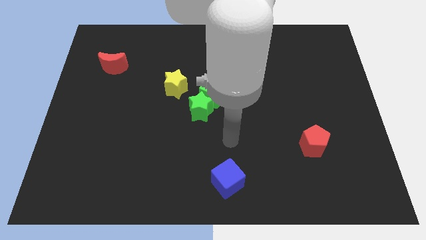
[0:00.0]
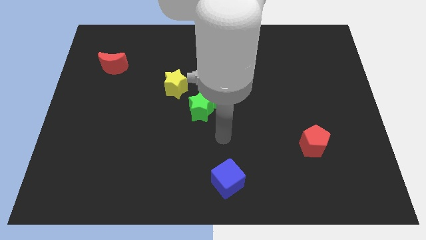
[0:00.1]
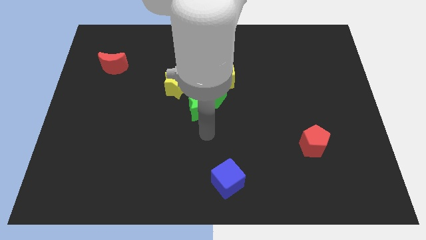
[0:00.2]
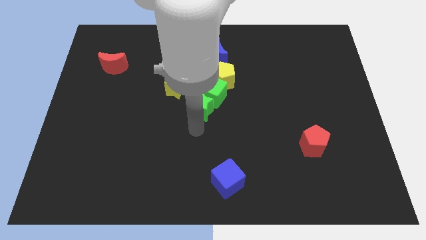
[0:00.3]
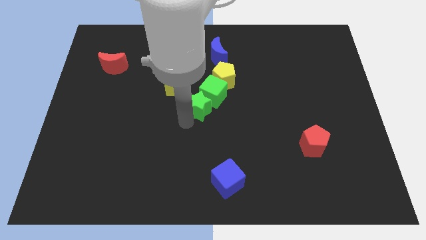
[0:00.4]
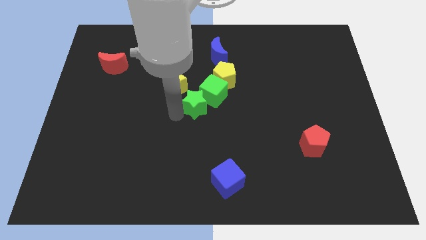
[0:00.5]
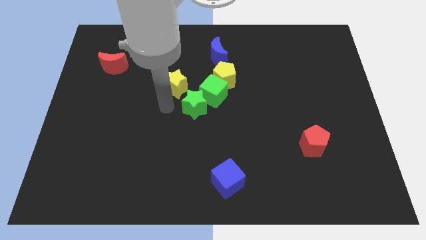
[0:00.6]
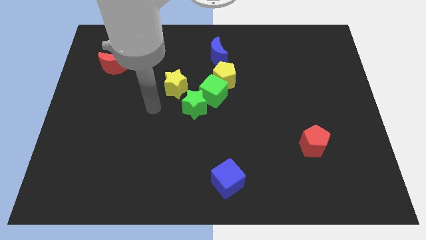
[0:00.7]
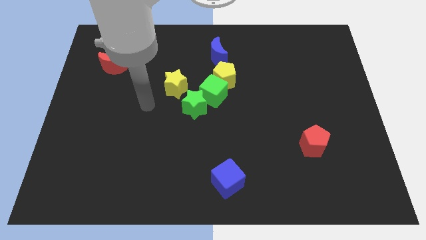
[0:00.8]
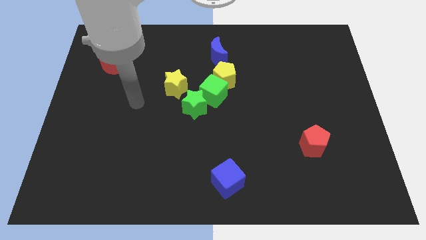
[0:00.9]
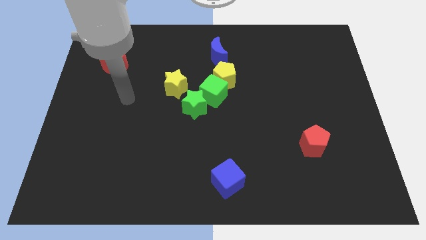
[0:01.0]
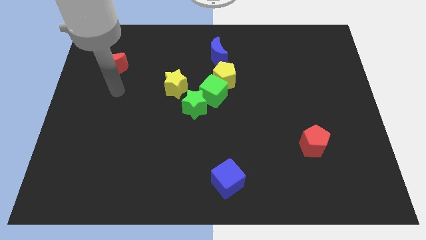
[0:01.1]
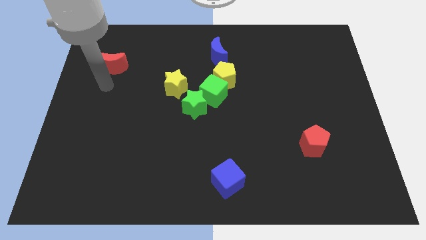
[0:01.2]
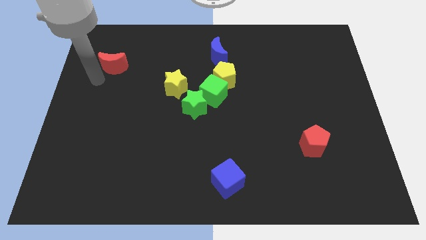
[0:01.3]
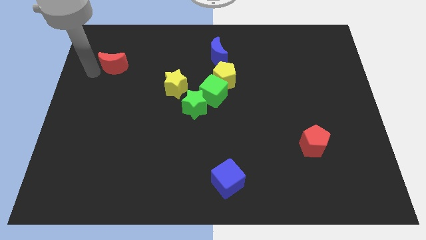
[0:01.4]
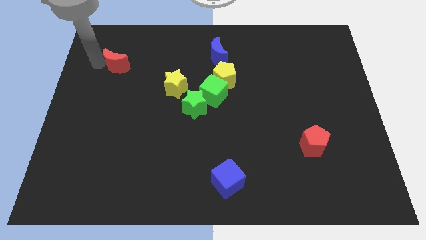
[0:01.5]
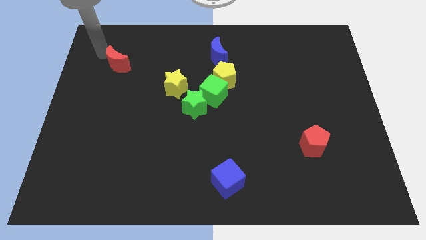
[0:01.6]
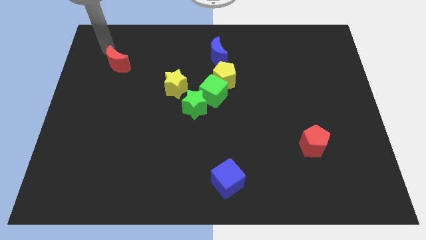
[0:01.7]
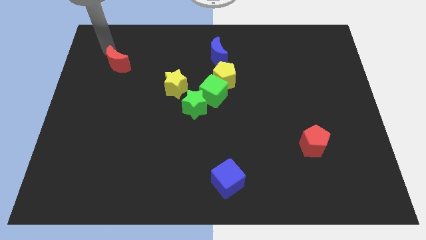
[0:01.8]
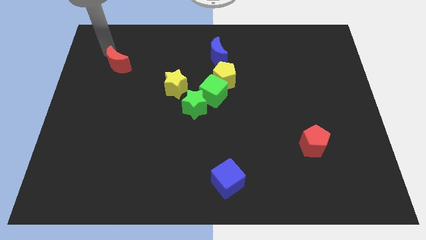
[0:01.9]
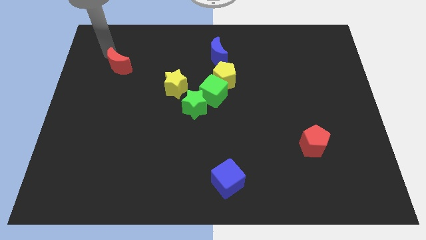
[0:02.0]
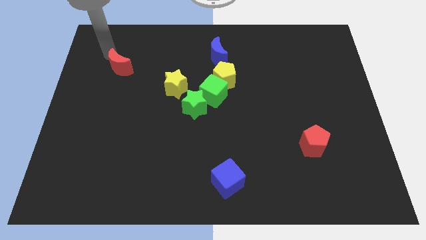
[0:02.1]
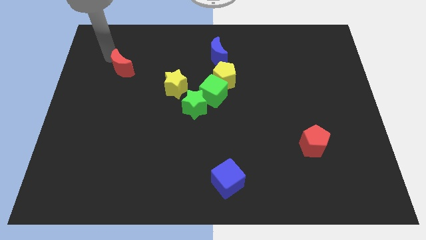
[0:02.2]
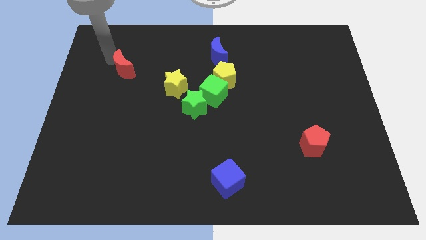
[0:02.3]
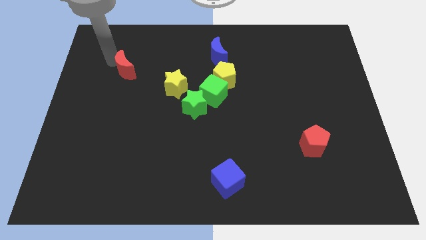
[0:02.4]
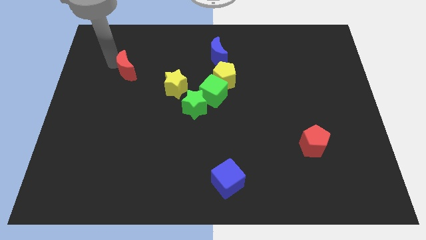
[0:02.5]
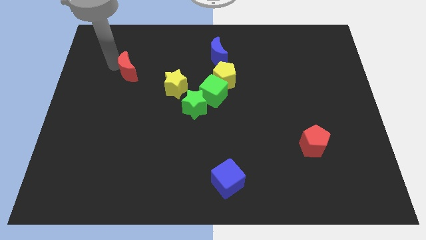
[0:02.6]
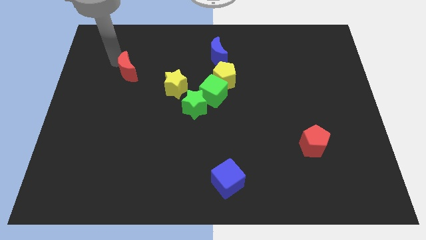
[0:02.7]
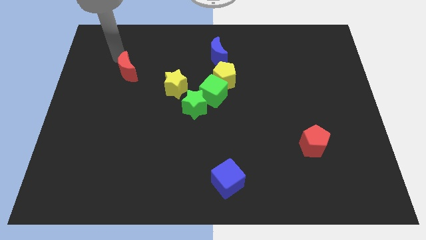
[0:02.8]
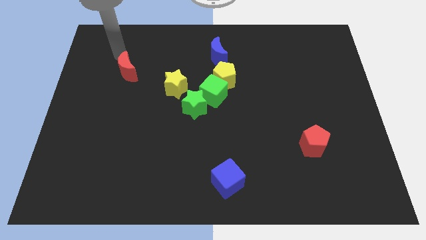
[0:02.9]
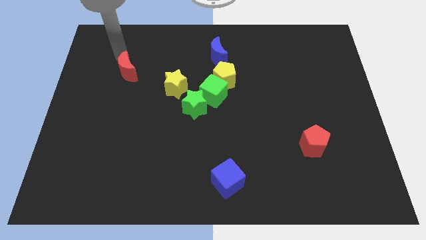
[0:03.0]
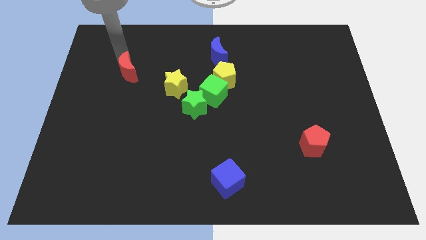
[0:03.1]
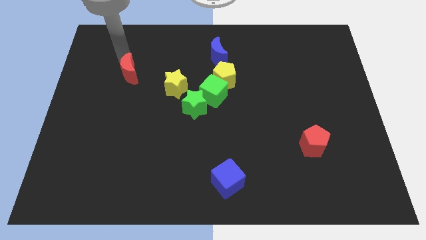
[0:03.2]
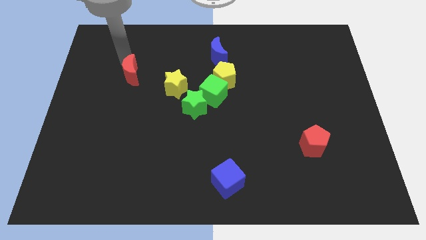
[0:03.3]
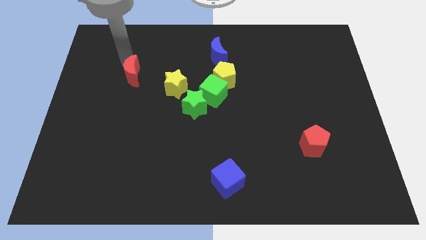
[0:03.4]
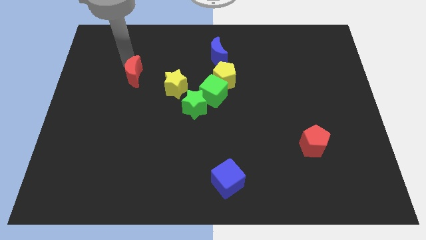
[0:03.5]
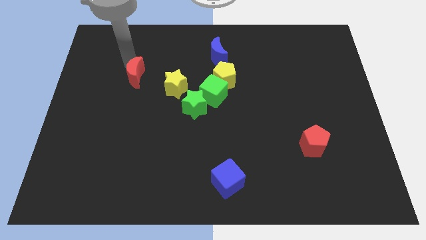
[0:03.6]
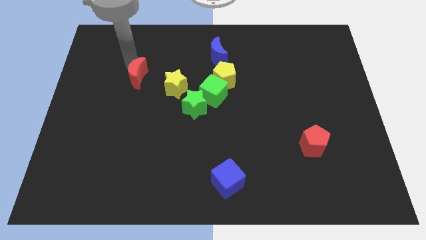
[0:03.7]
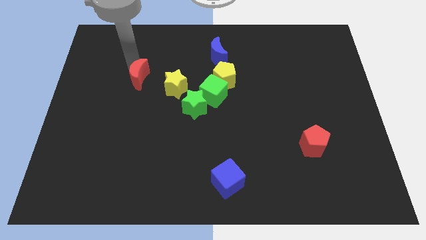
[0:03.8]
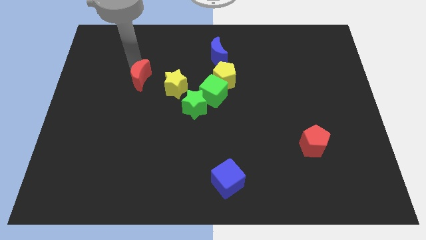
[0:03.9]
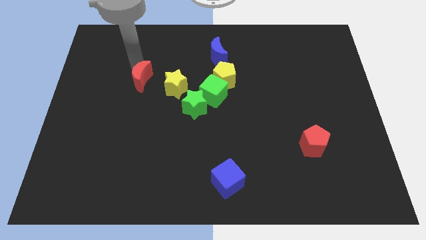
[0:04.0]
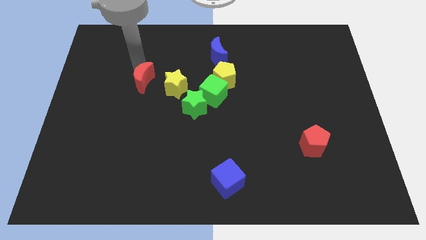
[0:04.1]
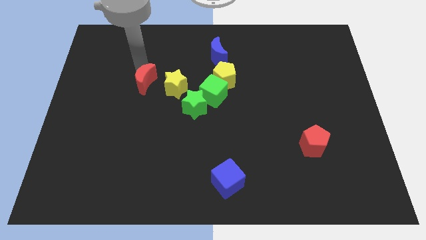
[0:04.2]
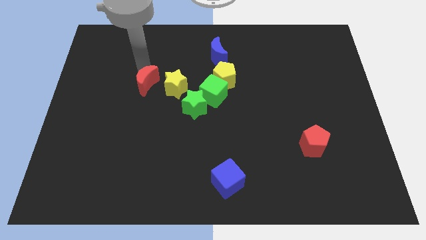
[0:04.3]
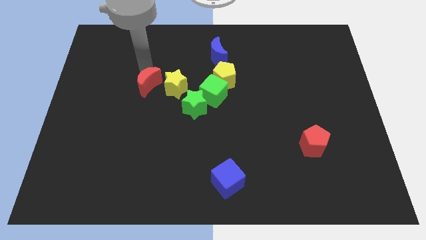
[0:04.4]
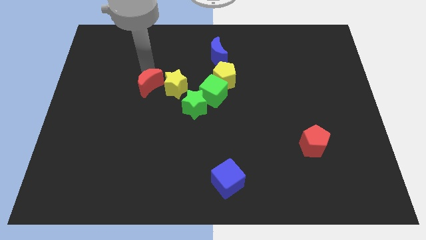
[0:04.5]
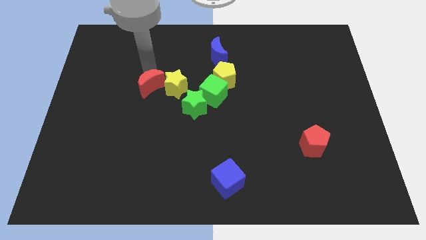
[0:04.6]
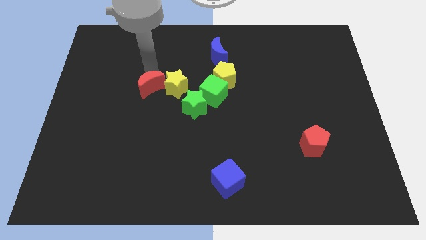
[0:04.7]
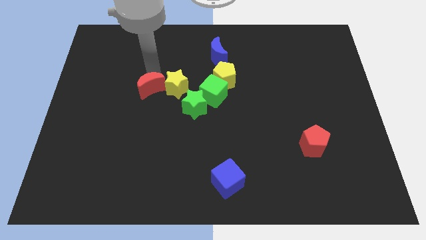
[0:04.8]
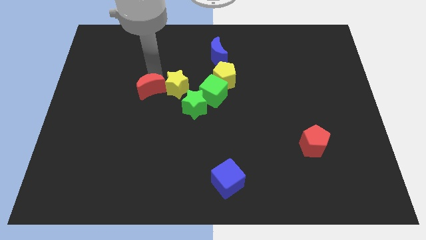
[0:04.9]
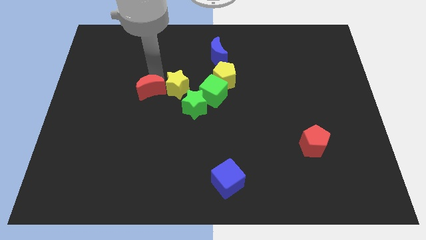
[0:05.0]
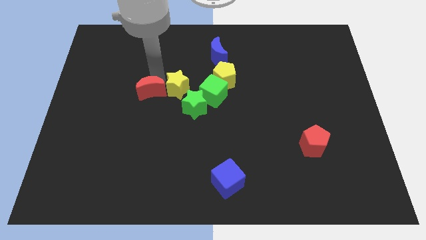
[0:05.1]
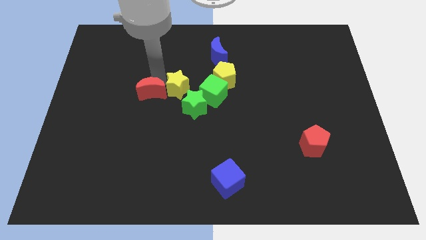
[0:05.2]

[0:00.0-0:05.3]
move the red moon to the left of the green star

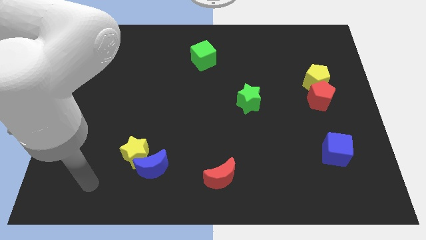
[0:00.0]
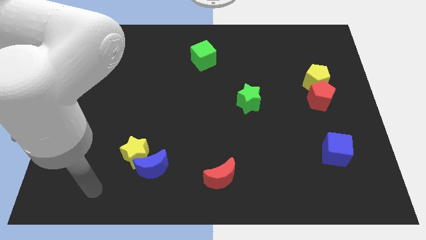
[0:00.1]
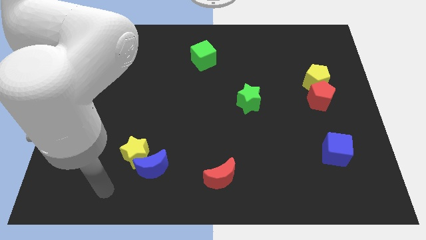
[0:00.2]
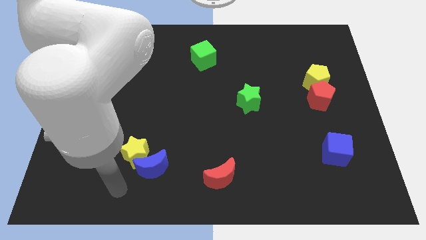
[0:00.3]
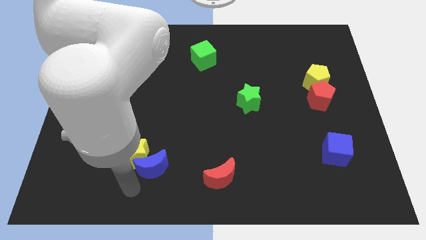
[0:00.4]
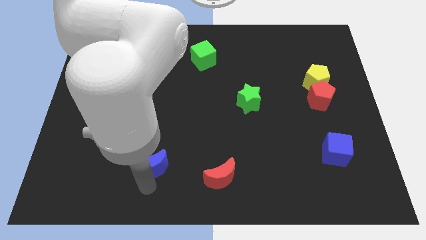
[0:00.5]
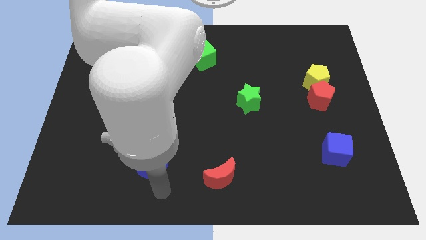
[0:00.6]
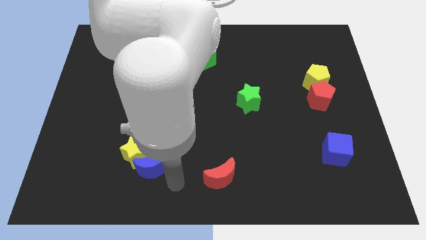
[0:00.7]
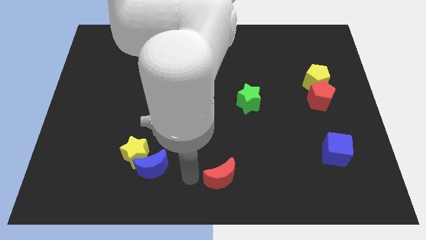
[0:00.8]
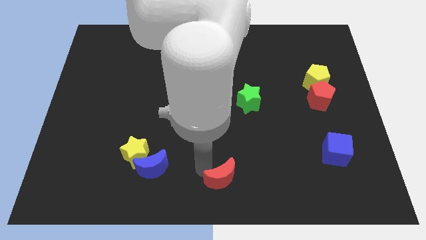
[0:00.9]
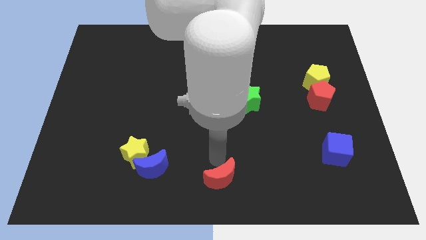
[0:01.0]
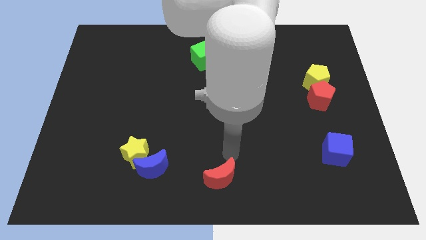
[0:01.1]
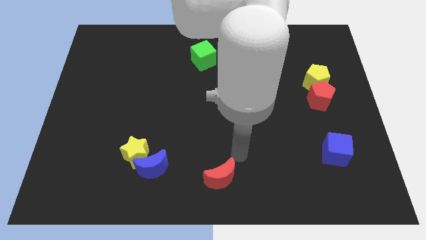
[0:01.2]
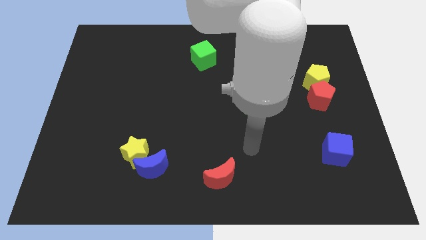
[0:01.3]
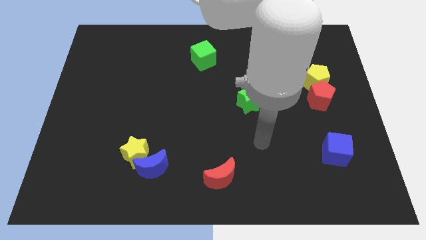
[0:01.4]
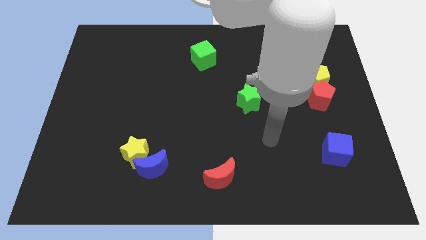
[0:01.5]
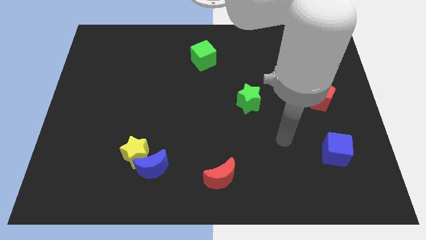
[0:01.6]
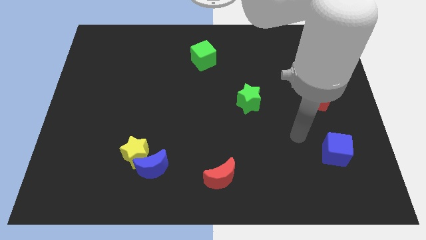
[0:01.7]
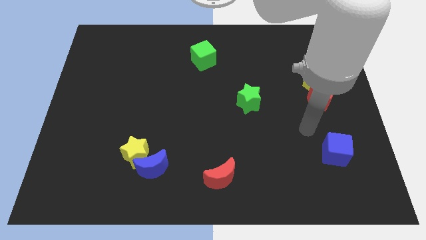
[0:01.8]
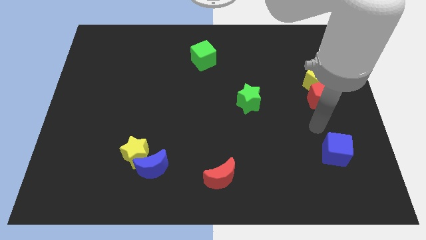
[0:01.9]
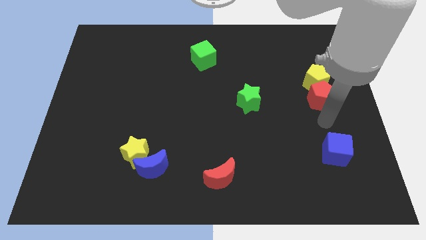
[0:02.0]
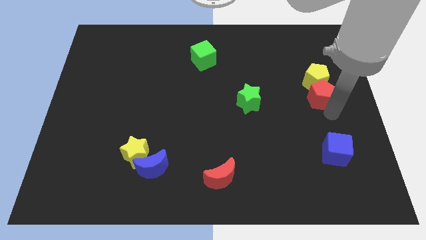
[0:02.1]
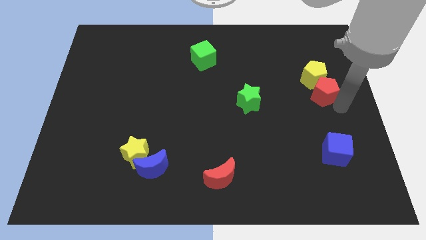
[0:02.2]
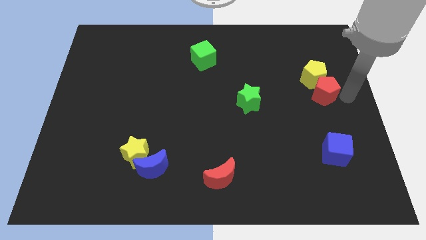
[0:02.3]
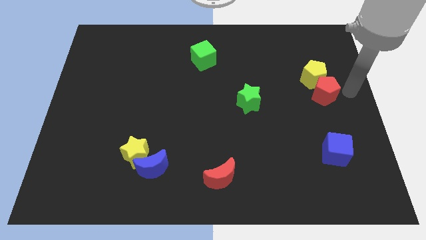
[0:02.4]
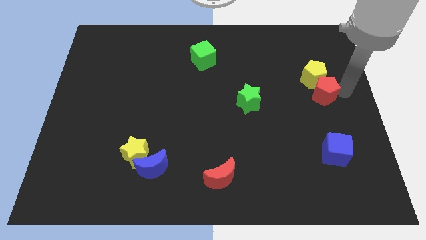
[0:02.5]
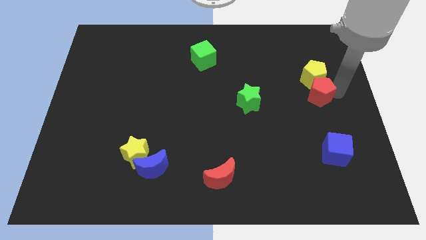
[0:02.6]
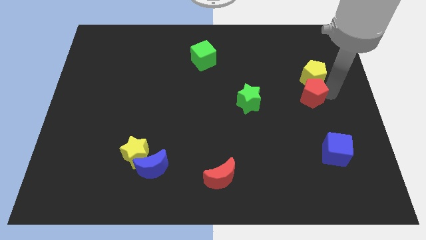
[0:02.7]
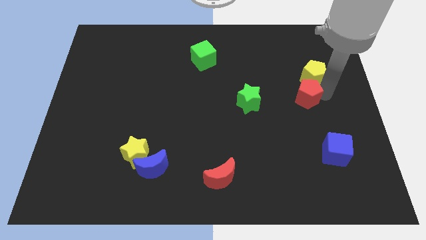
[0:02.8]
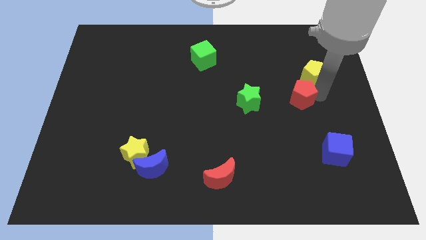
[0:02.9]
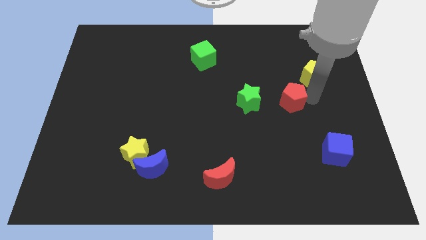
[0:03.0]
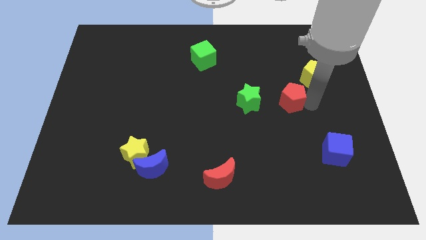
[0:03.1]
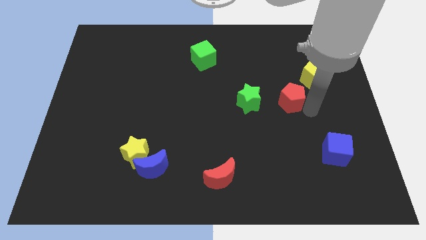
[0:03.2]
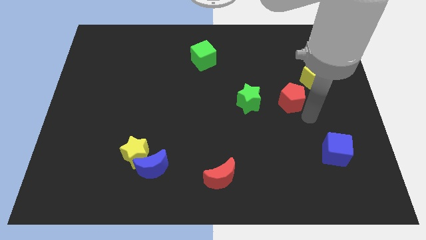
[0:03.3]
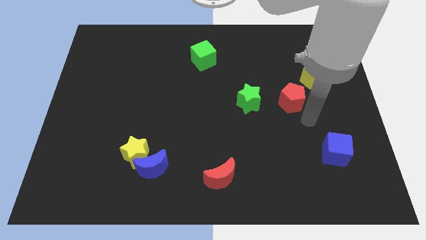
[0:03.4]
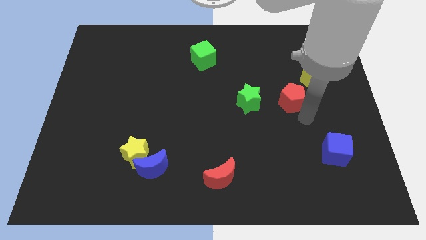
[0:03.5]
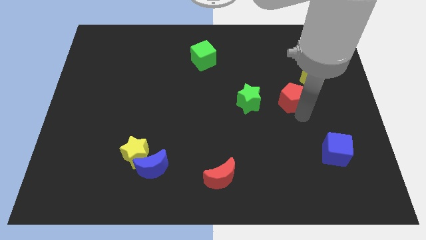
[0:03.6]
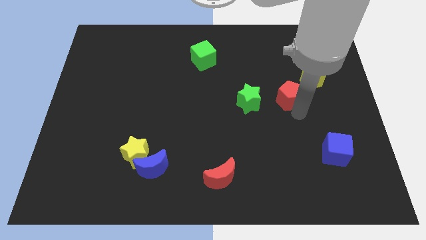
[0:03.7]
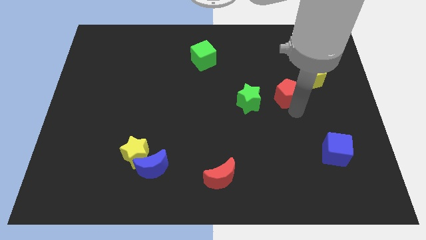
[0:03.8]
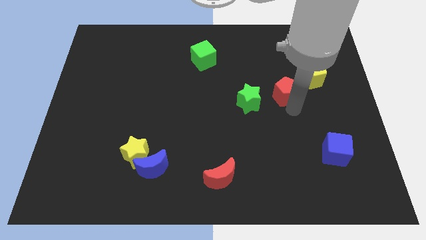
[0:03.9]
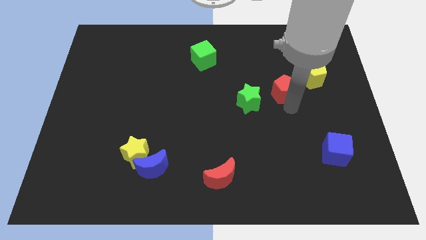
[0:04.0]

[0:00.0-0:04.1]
move the red pentagon left of the yellow pentagon
